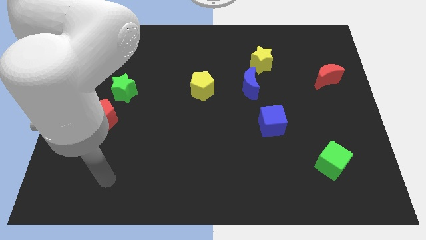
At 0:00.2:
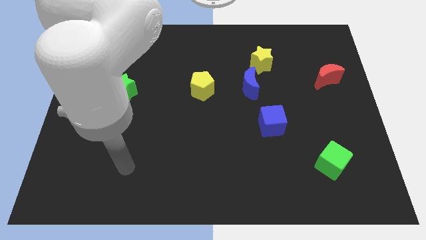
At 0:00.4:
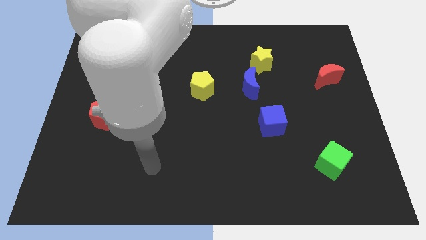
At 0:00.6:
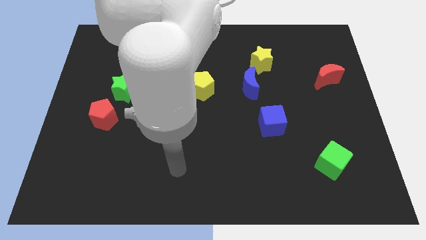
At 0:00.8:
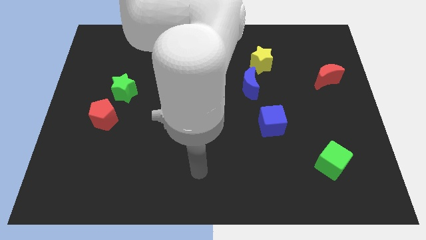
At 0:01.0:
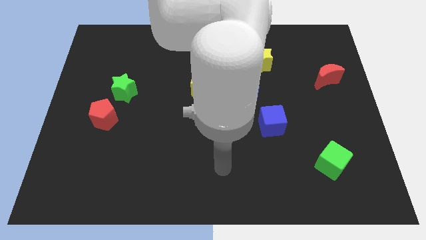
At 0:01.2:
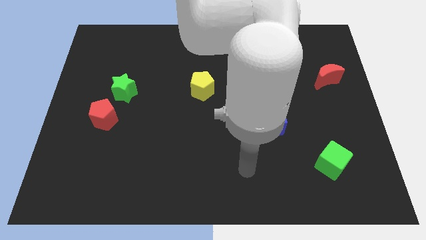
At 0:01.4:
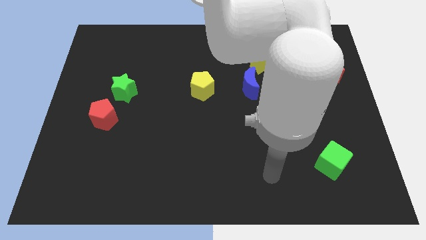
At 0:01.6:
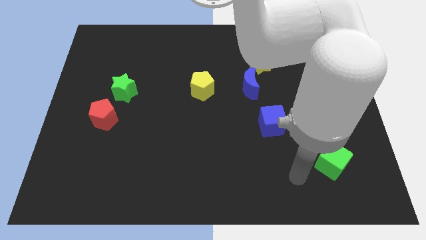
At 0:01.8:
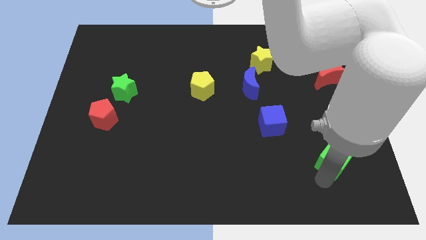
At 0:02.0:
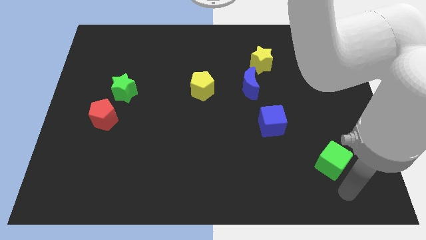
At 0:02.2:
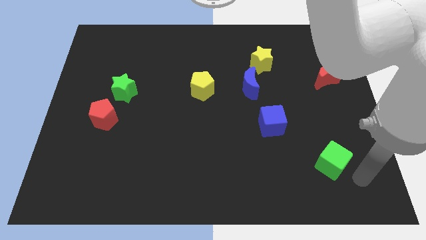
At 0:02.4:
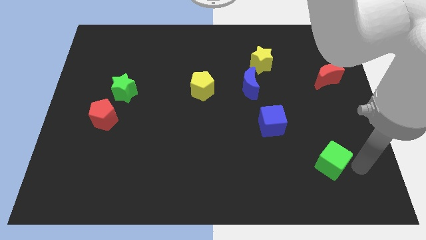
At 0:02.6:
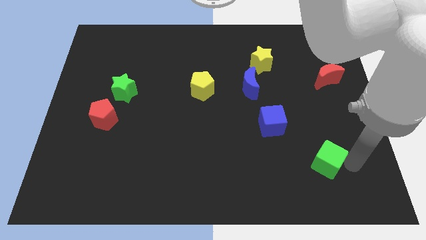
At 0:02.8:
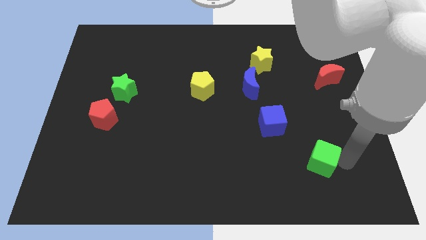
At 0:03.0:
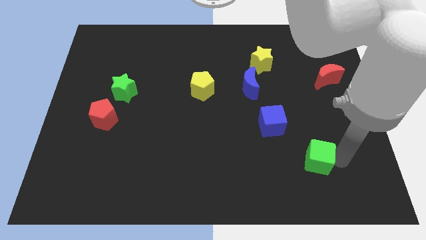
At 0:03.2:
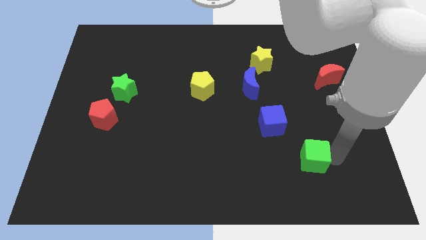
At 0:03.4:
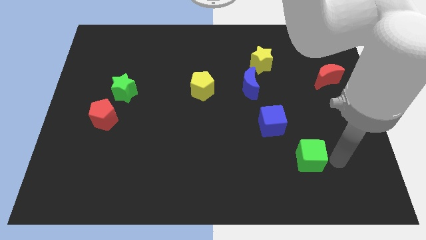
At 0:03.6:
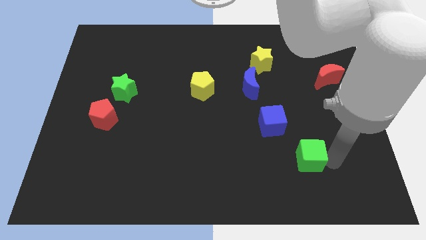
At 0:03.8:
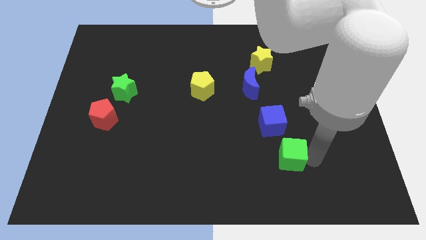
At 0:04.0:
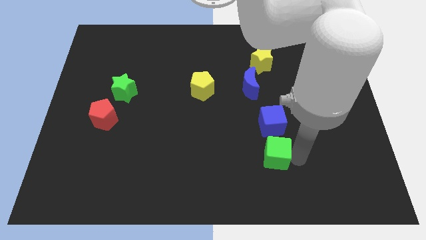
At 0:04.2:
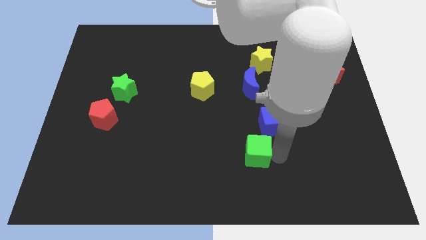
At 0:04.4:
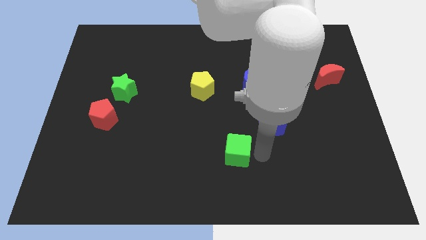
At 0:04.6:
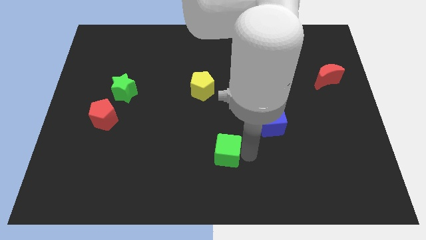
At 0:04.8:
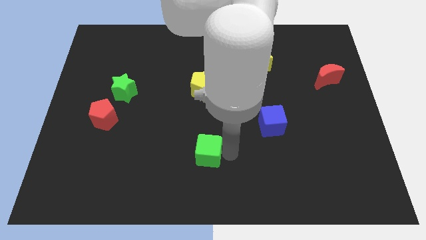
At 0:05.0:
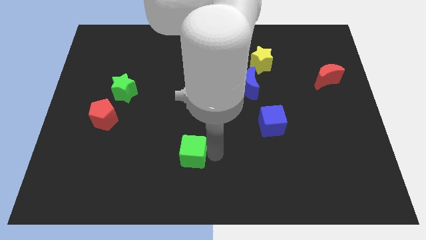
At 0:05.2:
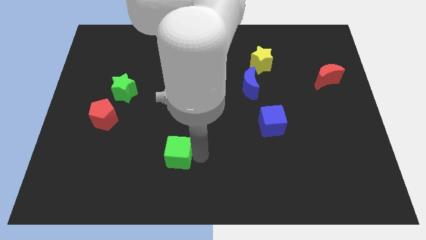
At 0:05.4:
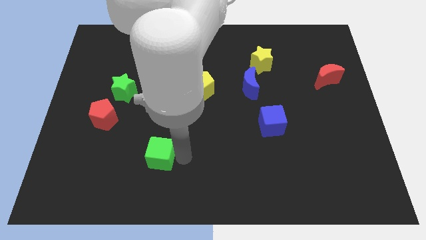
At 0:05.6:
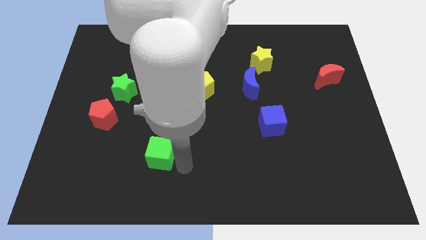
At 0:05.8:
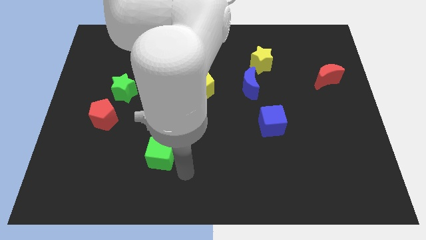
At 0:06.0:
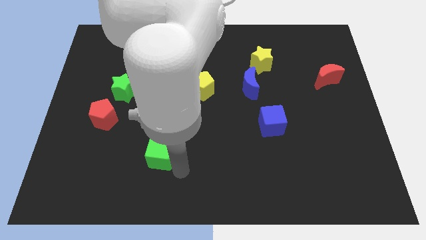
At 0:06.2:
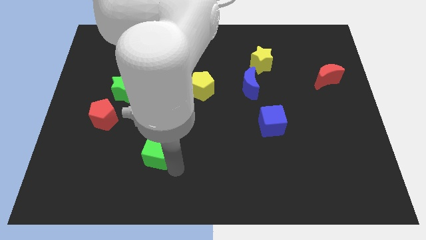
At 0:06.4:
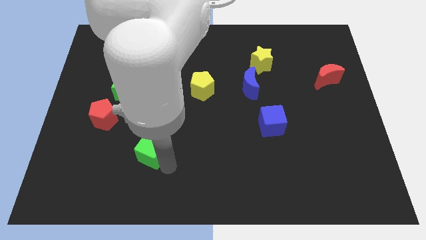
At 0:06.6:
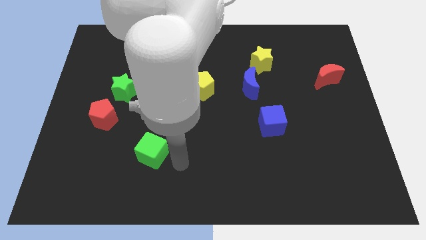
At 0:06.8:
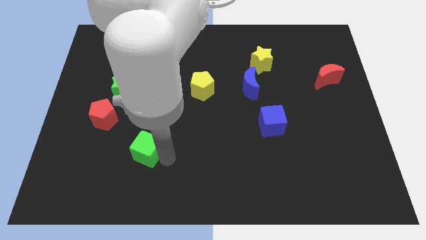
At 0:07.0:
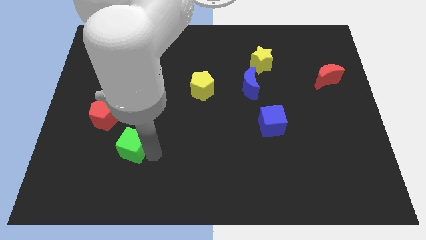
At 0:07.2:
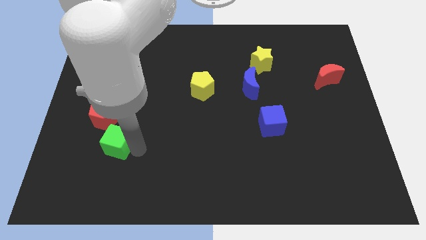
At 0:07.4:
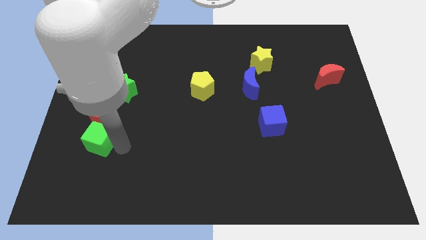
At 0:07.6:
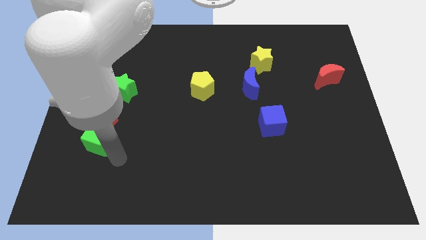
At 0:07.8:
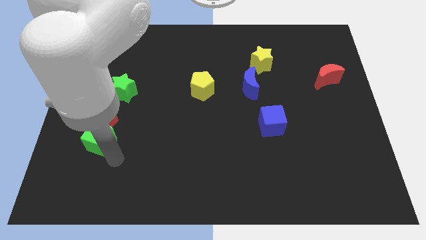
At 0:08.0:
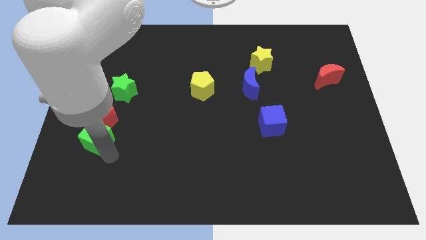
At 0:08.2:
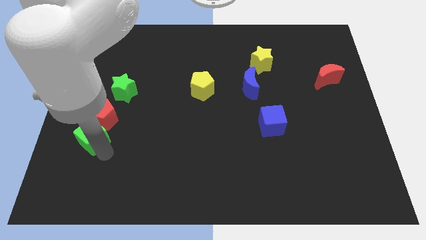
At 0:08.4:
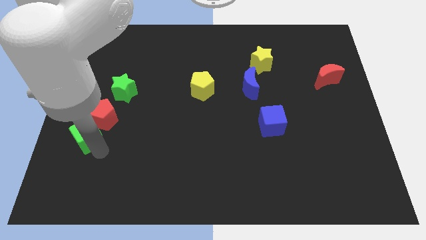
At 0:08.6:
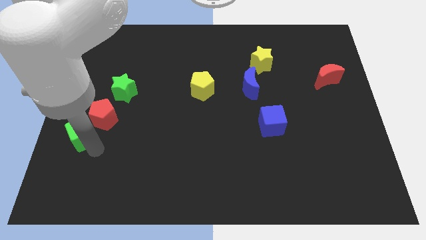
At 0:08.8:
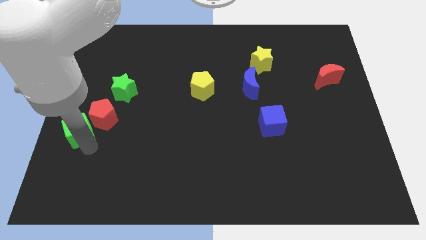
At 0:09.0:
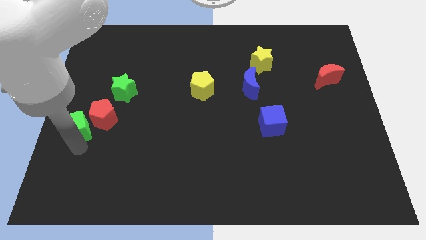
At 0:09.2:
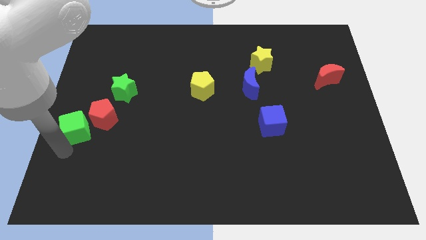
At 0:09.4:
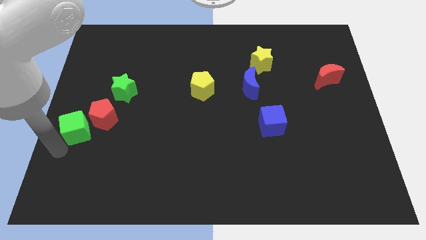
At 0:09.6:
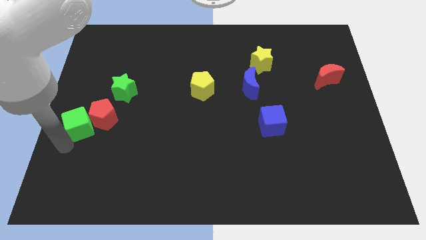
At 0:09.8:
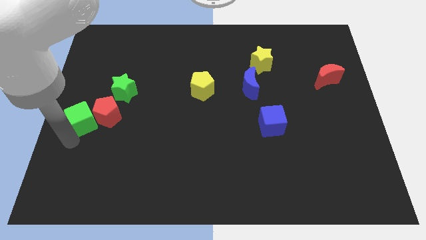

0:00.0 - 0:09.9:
put the green cube to the bottom left side of the green star

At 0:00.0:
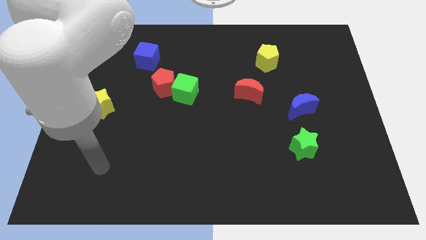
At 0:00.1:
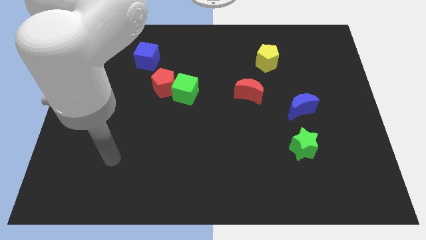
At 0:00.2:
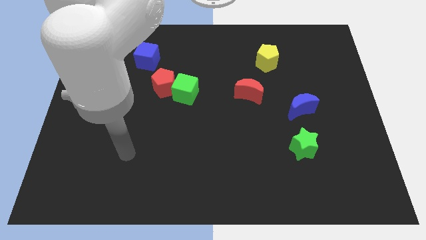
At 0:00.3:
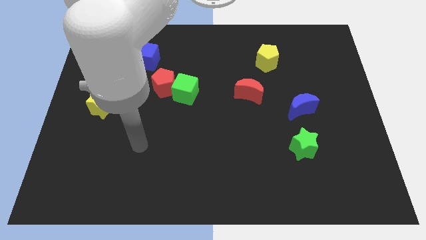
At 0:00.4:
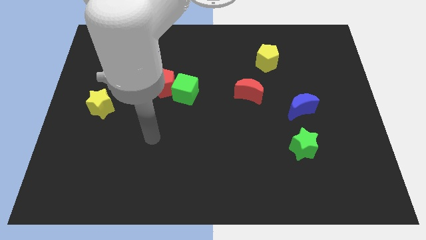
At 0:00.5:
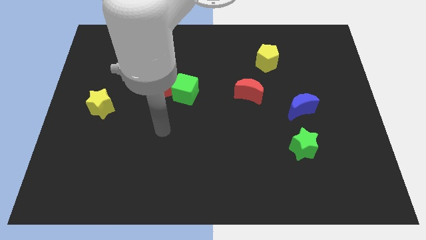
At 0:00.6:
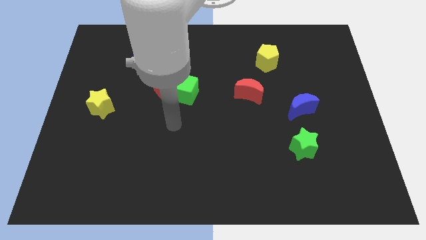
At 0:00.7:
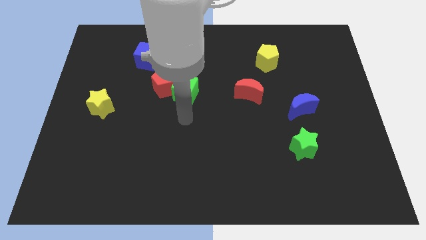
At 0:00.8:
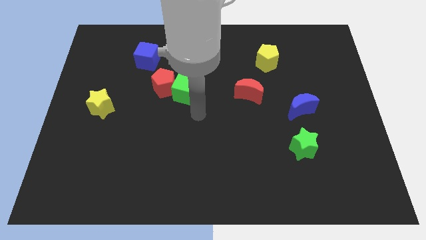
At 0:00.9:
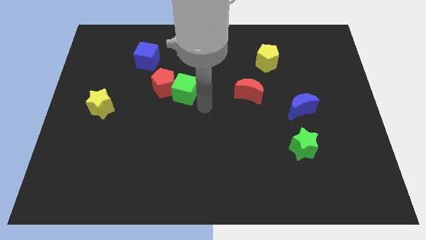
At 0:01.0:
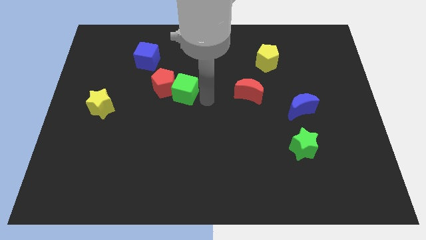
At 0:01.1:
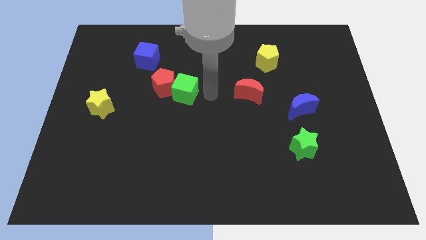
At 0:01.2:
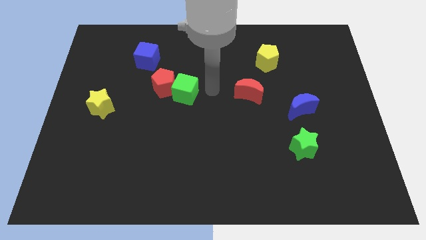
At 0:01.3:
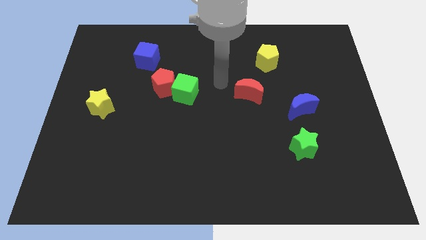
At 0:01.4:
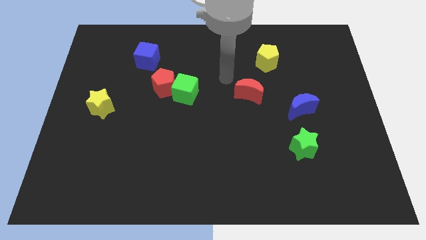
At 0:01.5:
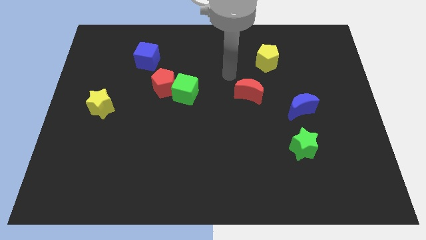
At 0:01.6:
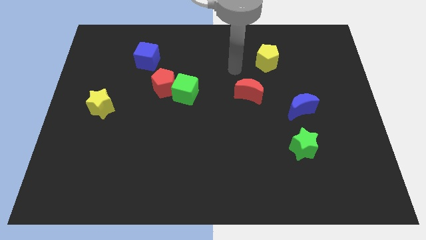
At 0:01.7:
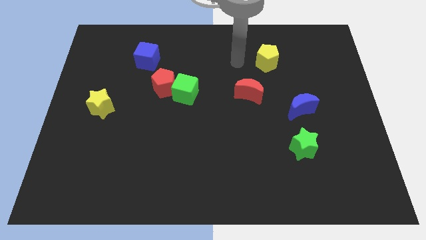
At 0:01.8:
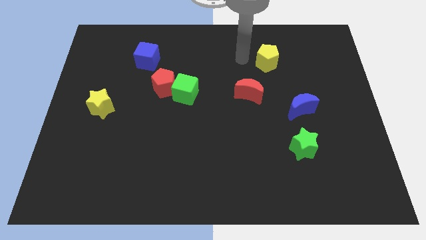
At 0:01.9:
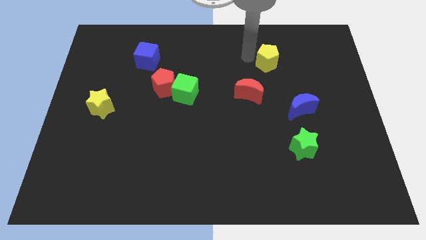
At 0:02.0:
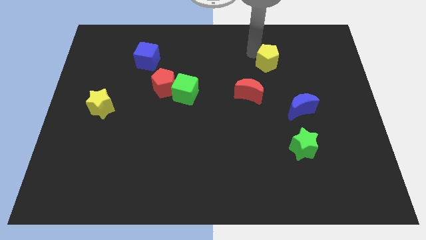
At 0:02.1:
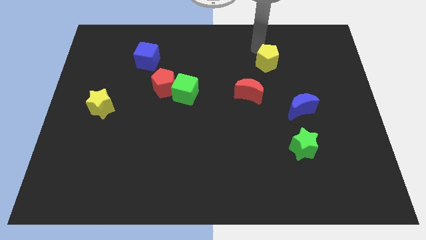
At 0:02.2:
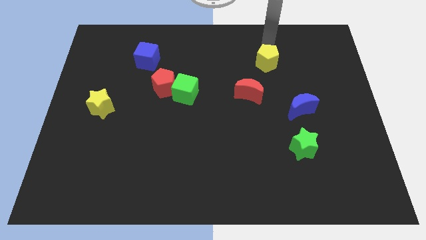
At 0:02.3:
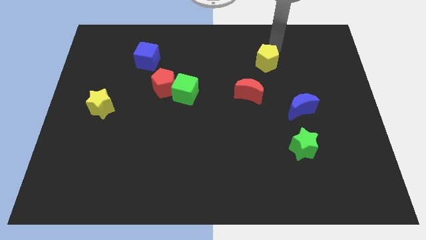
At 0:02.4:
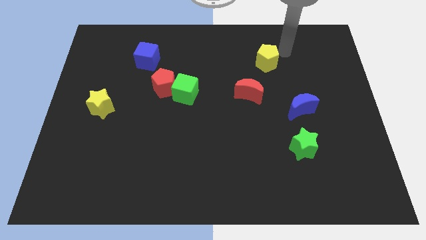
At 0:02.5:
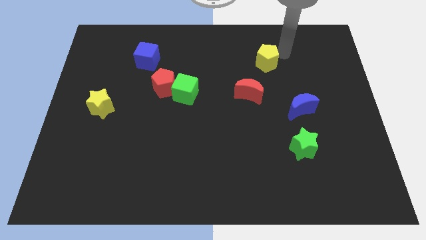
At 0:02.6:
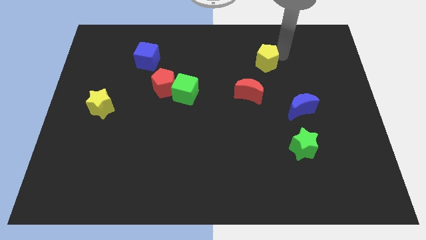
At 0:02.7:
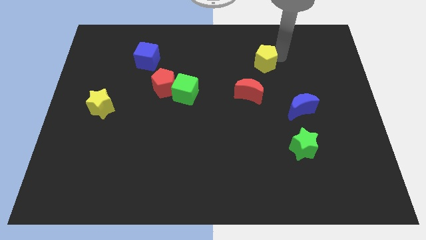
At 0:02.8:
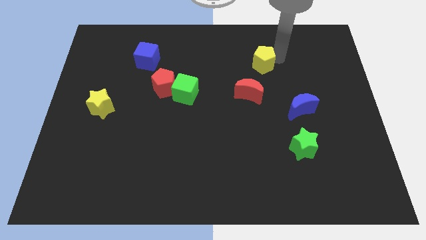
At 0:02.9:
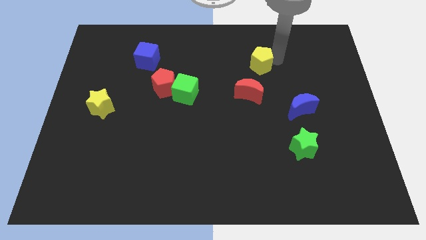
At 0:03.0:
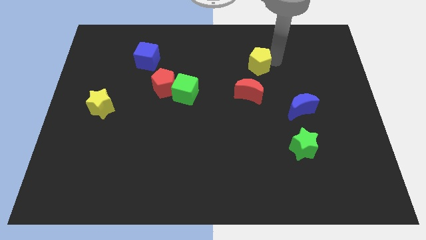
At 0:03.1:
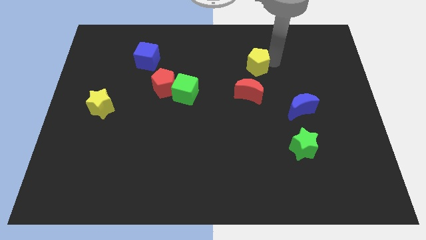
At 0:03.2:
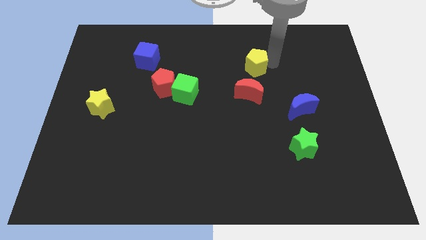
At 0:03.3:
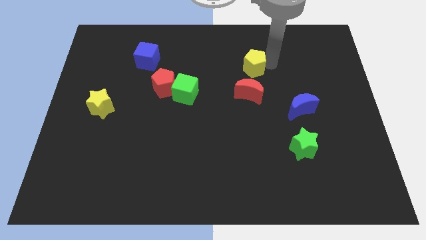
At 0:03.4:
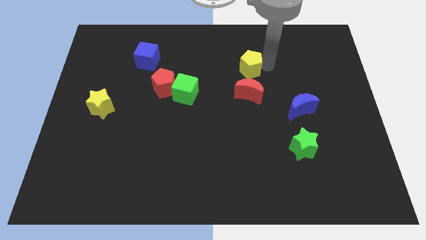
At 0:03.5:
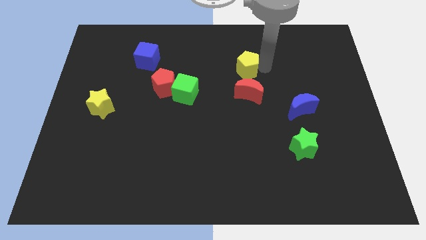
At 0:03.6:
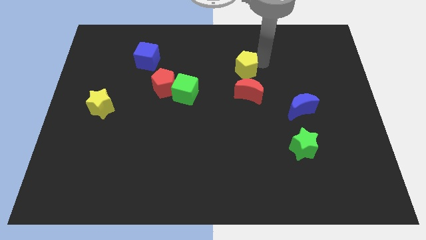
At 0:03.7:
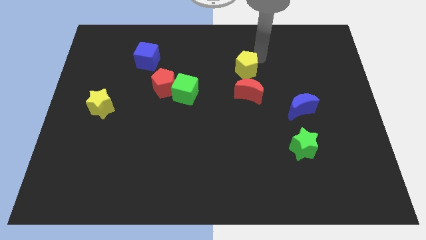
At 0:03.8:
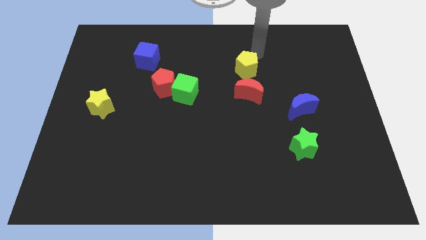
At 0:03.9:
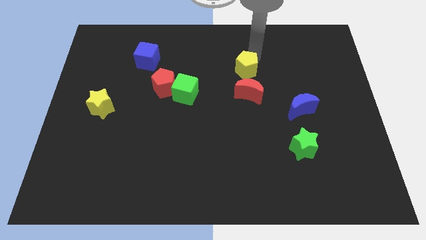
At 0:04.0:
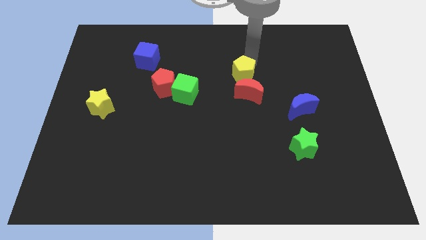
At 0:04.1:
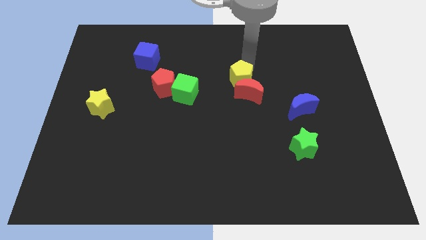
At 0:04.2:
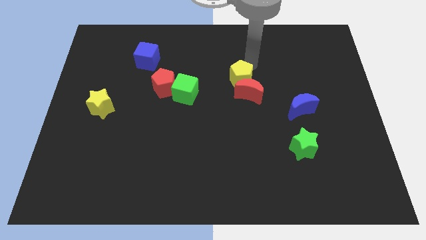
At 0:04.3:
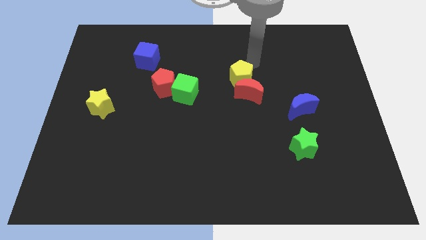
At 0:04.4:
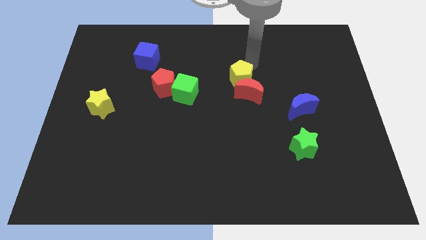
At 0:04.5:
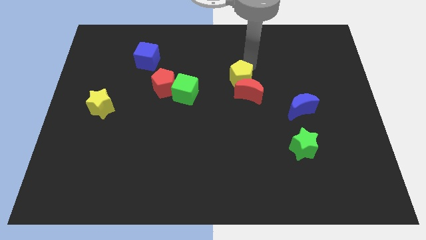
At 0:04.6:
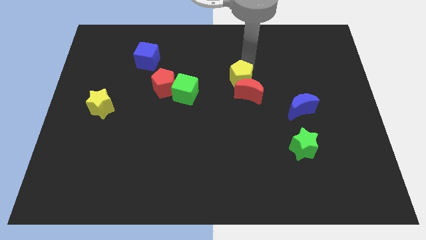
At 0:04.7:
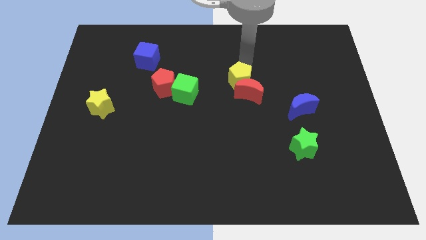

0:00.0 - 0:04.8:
put the yellow pentagon to the right side of the green cube
